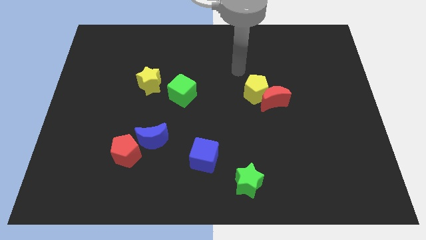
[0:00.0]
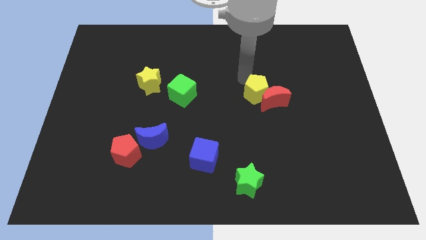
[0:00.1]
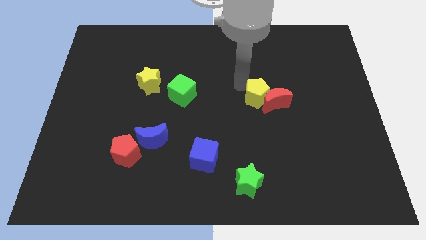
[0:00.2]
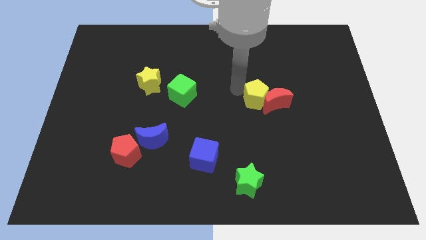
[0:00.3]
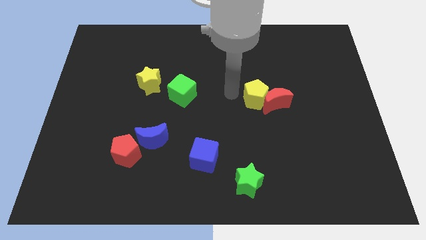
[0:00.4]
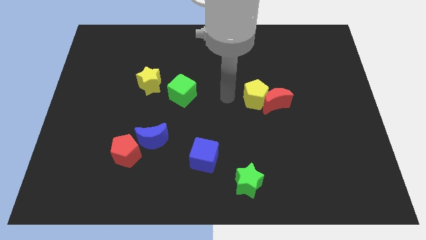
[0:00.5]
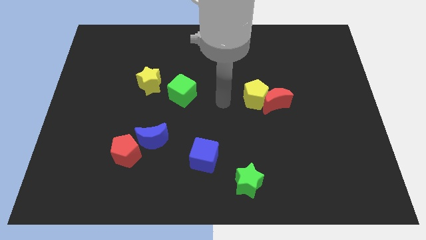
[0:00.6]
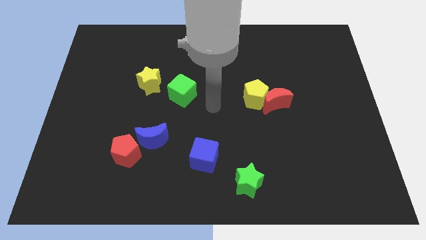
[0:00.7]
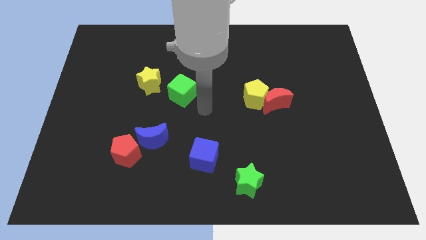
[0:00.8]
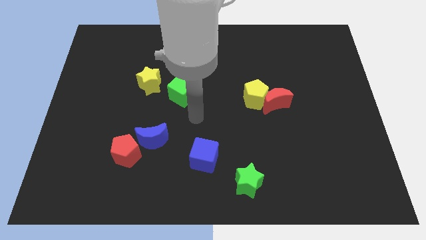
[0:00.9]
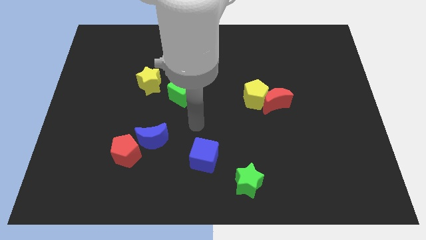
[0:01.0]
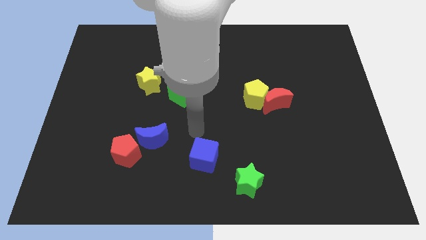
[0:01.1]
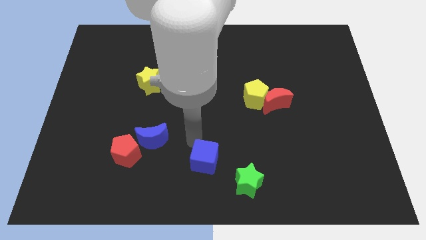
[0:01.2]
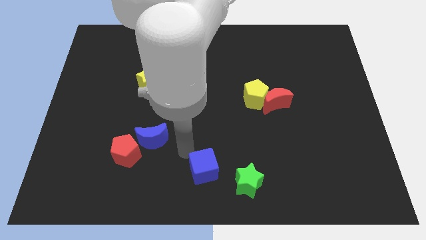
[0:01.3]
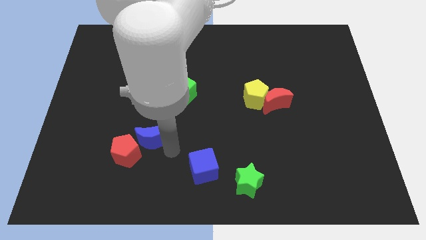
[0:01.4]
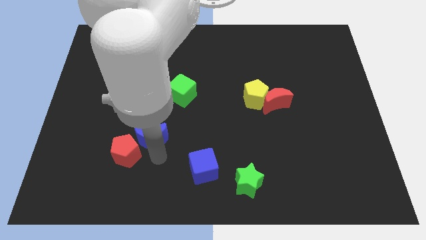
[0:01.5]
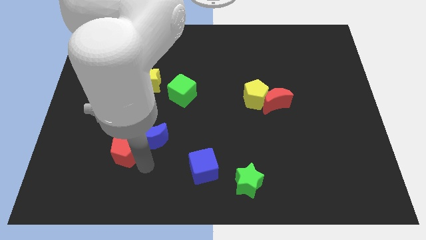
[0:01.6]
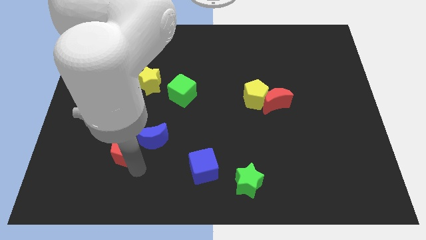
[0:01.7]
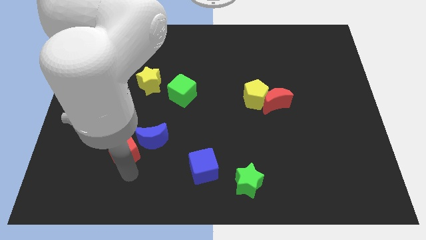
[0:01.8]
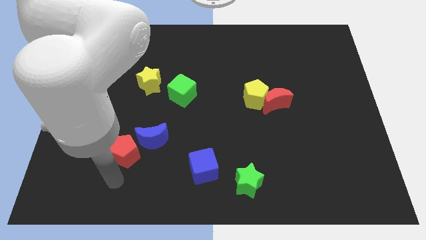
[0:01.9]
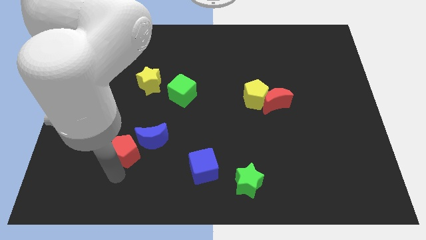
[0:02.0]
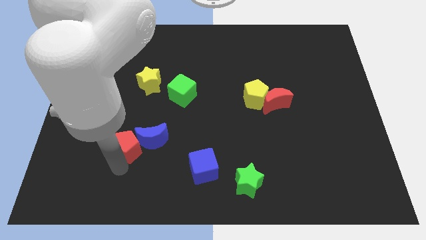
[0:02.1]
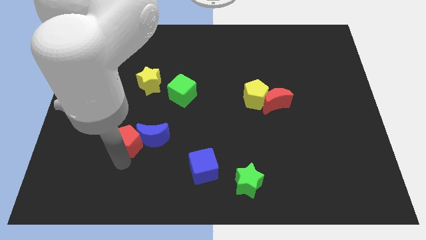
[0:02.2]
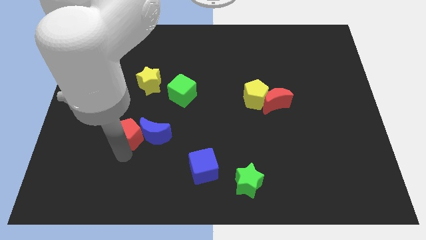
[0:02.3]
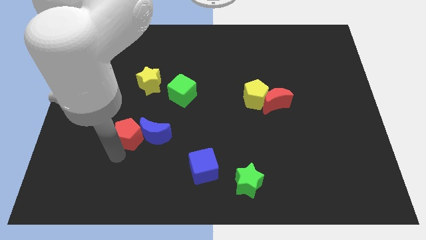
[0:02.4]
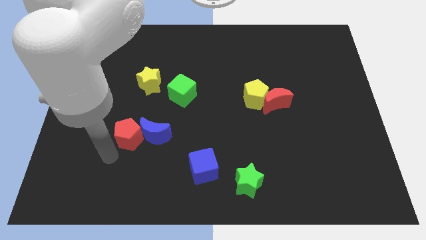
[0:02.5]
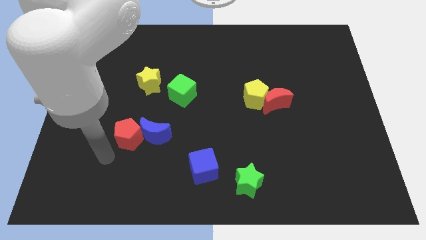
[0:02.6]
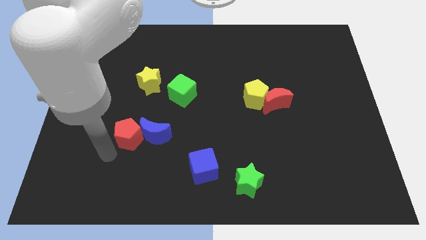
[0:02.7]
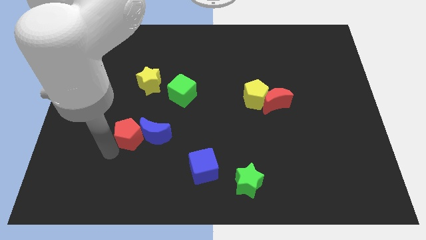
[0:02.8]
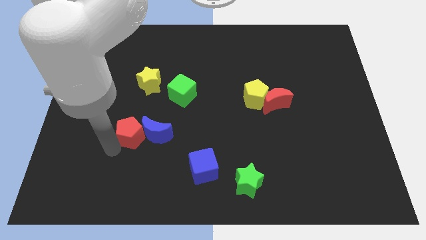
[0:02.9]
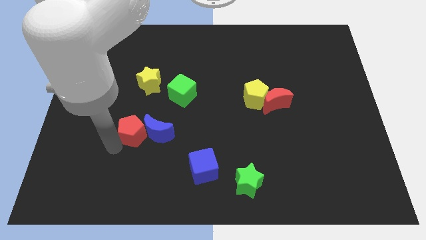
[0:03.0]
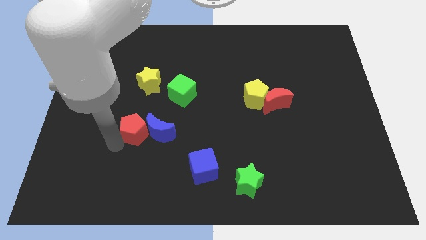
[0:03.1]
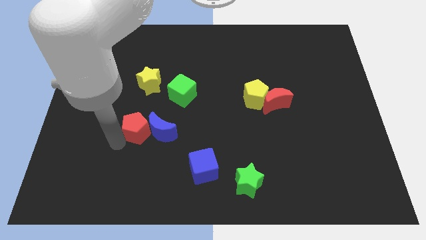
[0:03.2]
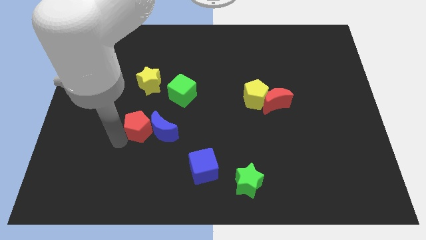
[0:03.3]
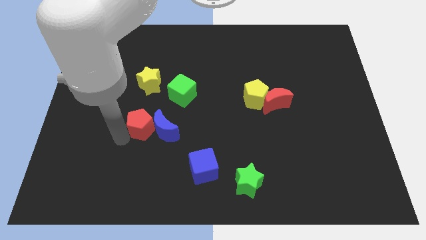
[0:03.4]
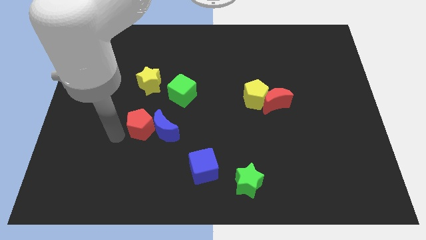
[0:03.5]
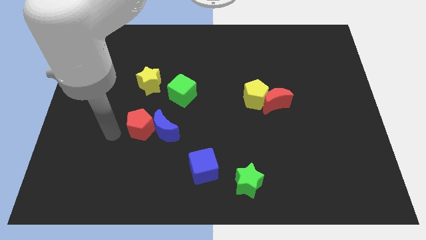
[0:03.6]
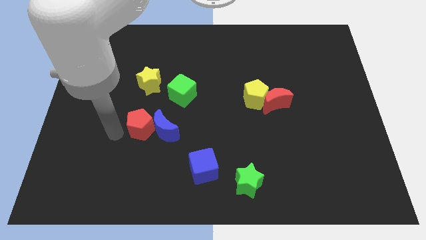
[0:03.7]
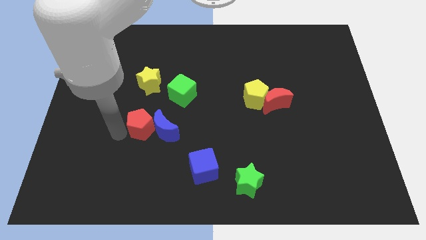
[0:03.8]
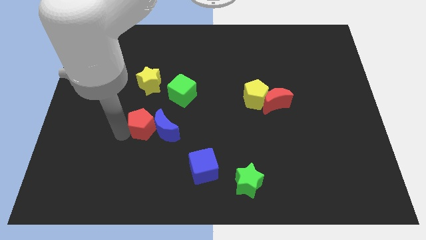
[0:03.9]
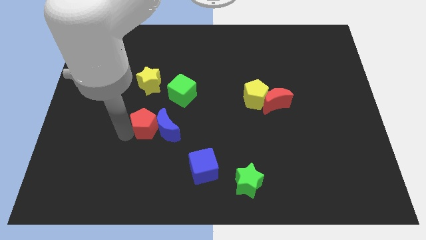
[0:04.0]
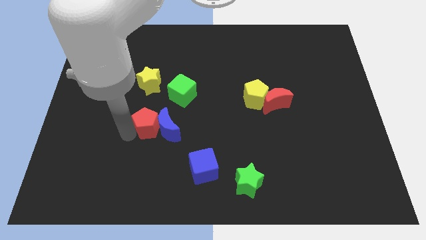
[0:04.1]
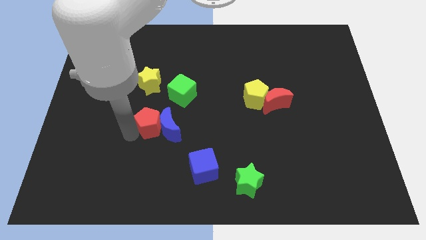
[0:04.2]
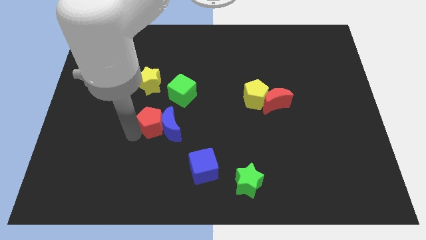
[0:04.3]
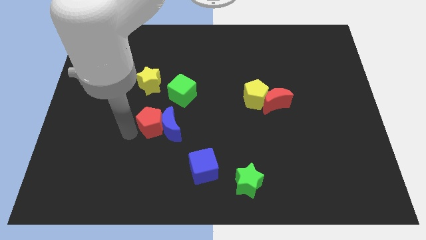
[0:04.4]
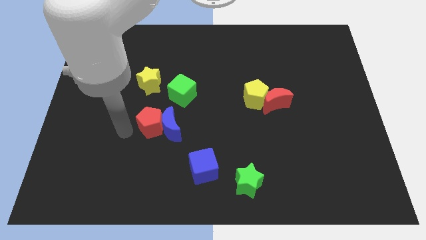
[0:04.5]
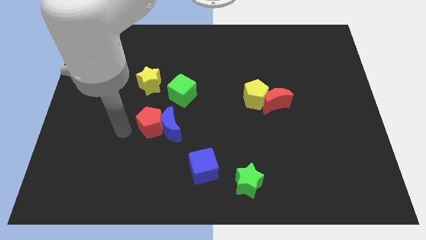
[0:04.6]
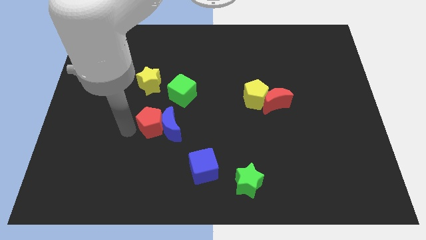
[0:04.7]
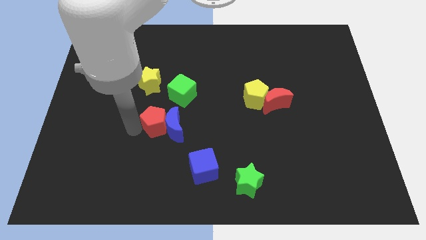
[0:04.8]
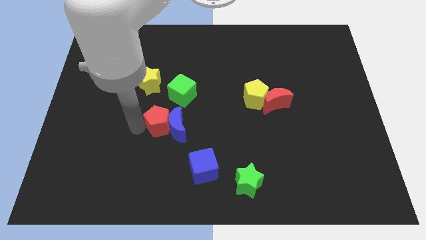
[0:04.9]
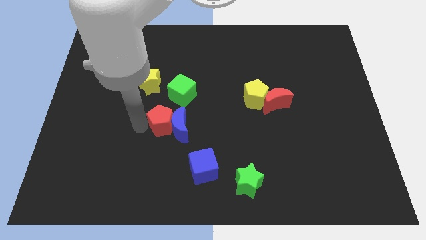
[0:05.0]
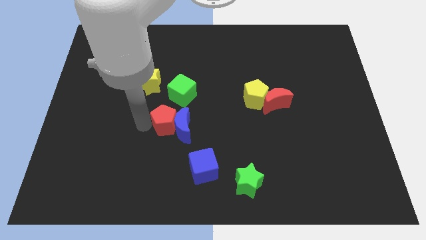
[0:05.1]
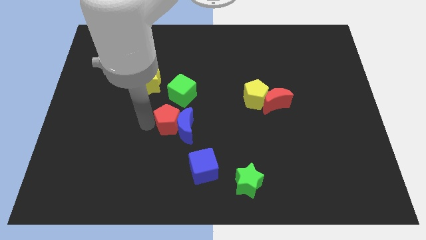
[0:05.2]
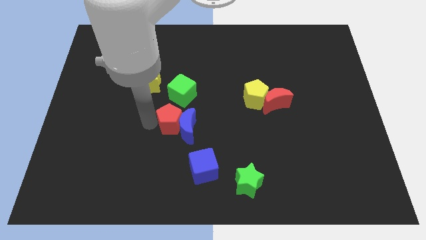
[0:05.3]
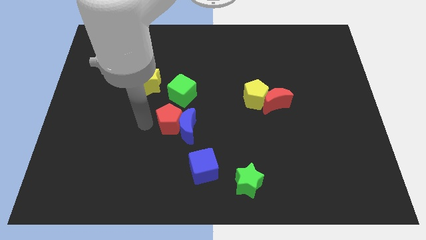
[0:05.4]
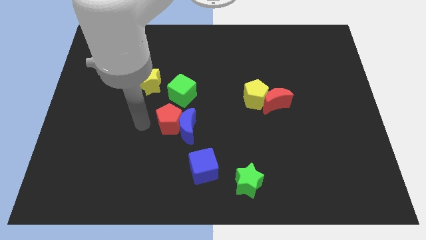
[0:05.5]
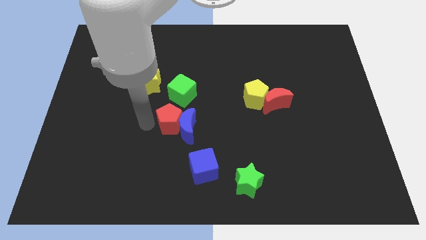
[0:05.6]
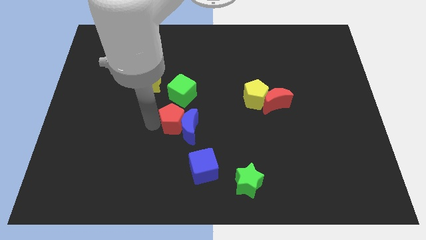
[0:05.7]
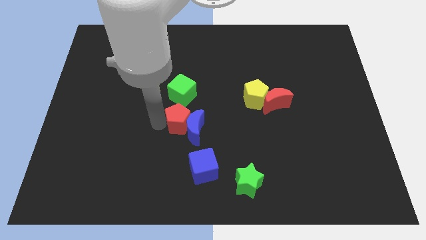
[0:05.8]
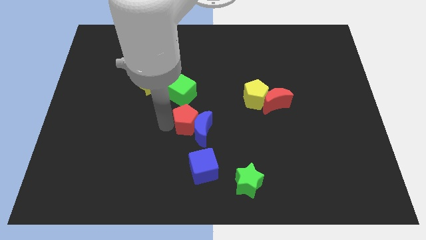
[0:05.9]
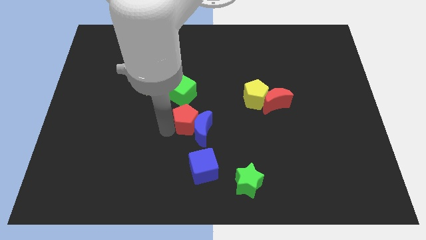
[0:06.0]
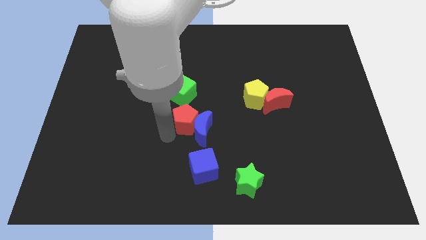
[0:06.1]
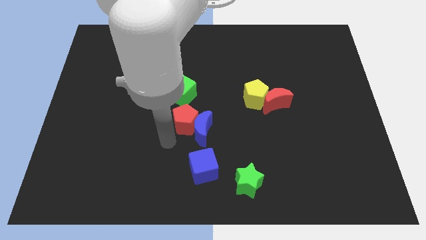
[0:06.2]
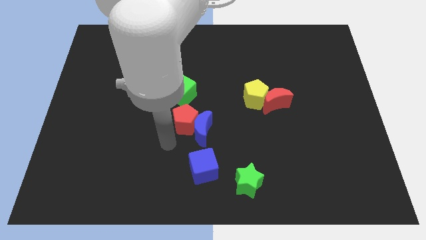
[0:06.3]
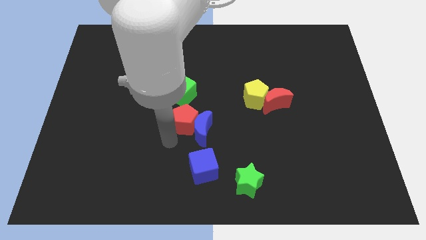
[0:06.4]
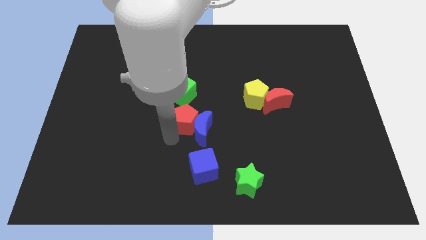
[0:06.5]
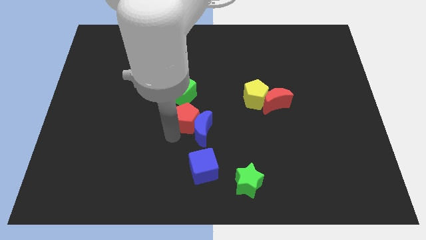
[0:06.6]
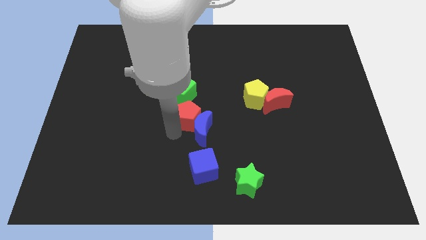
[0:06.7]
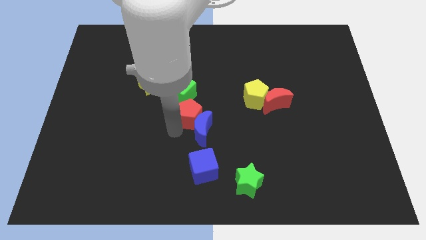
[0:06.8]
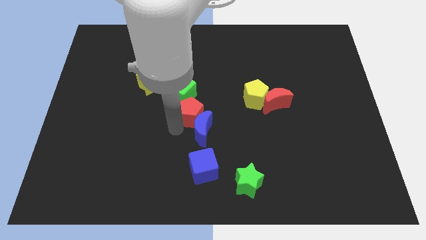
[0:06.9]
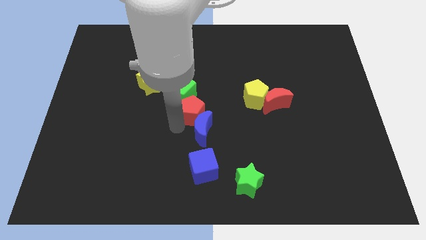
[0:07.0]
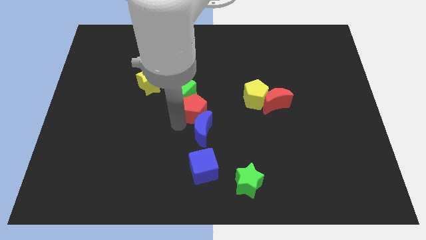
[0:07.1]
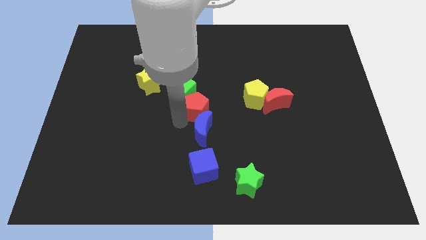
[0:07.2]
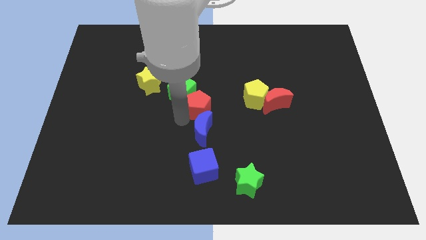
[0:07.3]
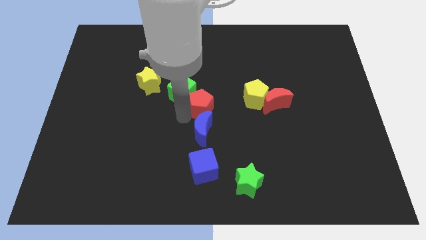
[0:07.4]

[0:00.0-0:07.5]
slide the red pentagon upwards and right diagonally

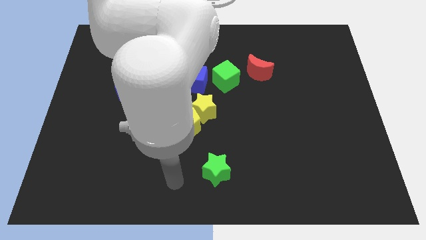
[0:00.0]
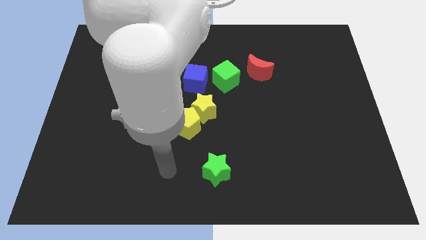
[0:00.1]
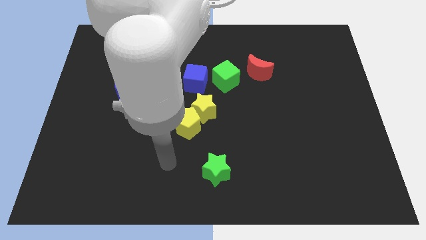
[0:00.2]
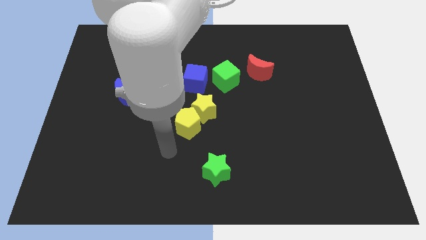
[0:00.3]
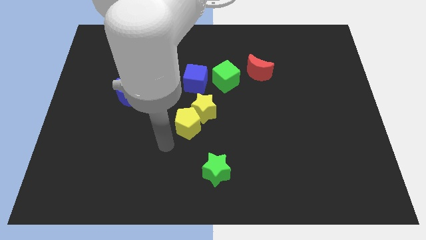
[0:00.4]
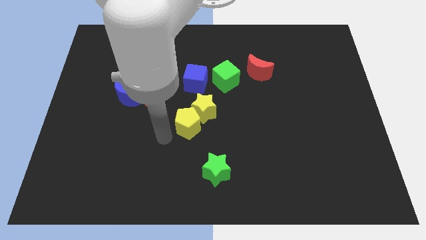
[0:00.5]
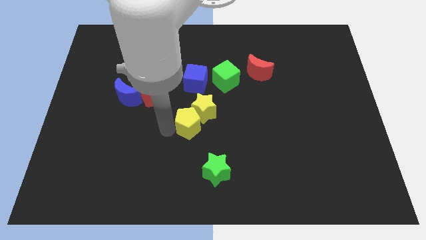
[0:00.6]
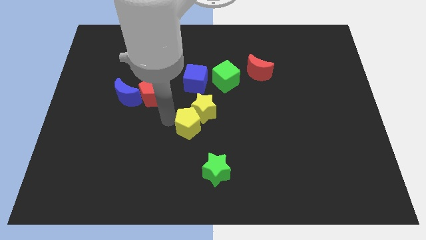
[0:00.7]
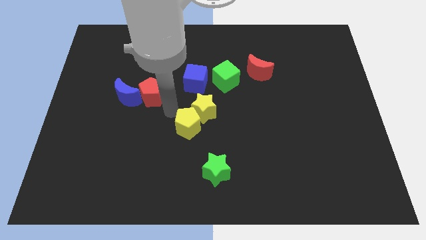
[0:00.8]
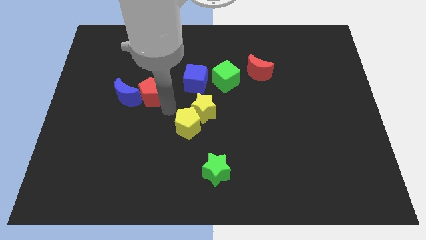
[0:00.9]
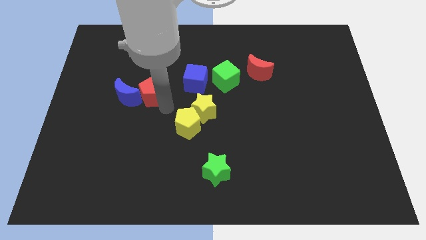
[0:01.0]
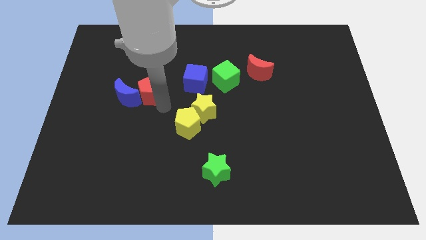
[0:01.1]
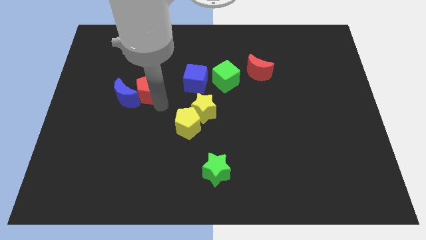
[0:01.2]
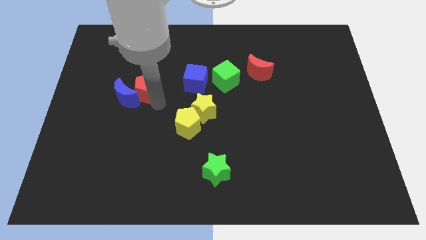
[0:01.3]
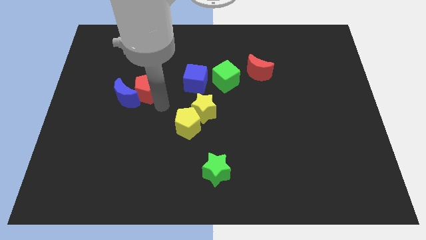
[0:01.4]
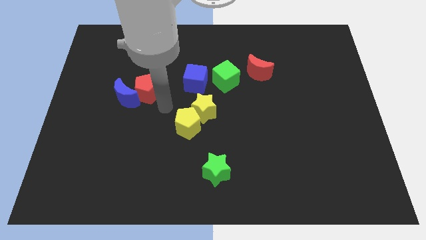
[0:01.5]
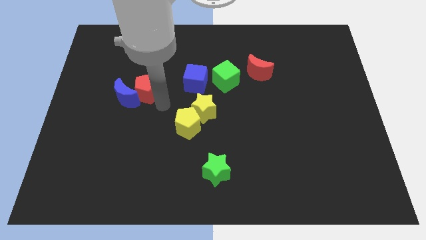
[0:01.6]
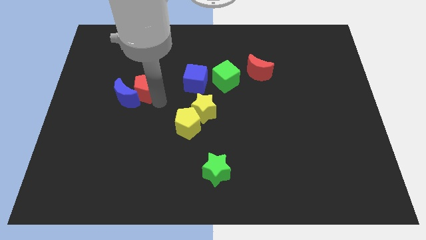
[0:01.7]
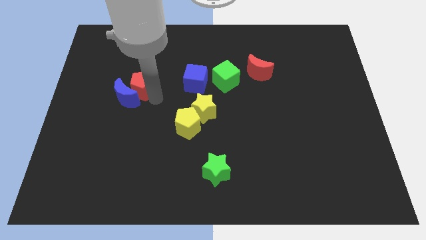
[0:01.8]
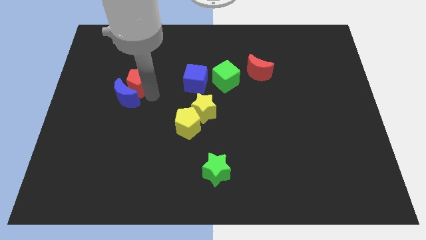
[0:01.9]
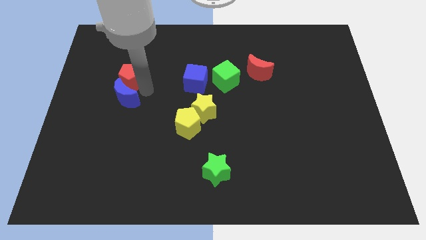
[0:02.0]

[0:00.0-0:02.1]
move the red pentagon a little bit diagonally up and left
